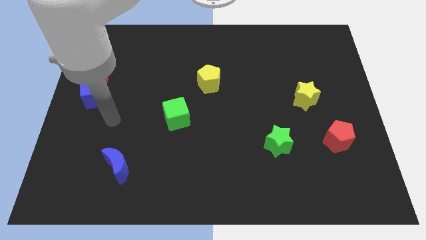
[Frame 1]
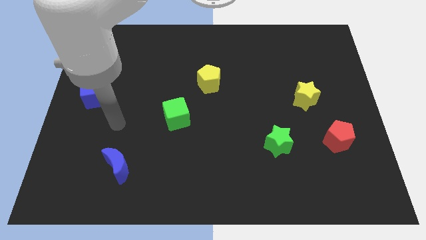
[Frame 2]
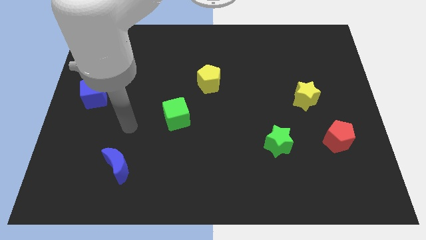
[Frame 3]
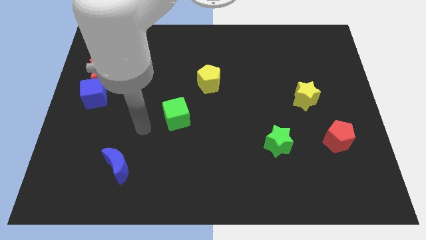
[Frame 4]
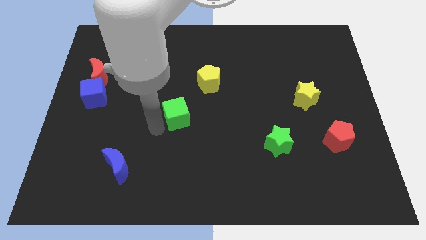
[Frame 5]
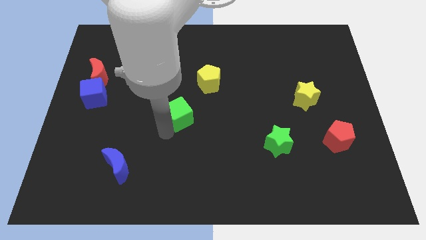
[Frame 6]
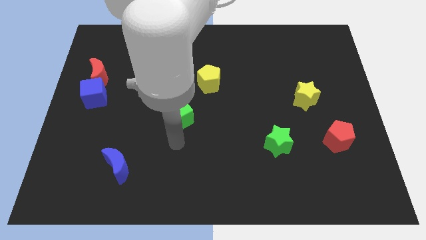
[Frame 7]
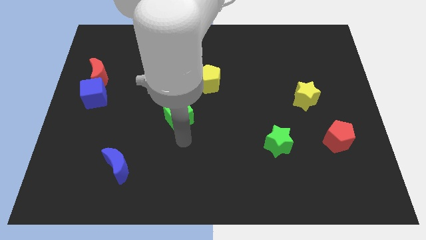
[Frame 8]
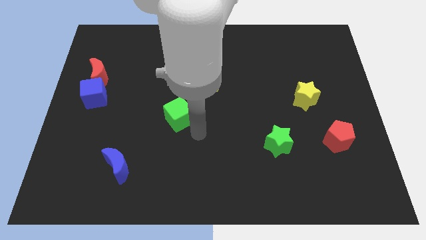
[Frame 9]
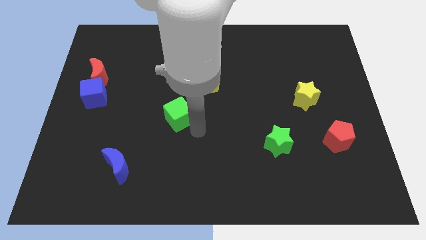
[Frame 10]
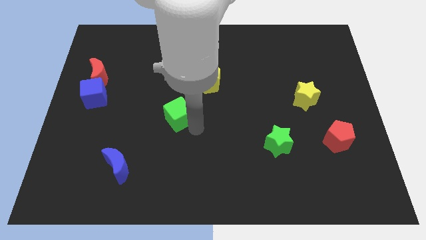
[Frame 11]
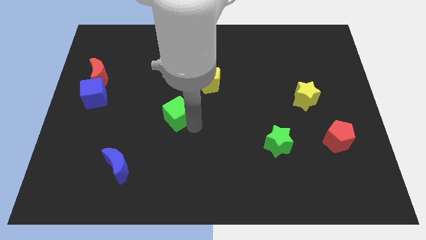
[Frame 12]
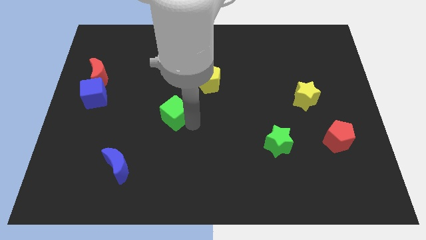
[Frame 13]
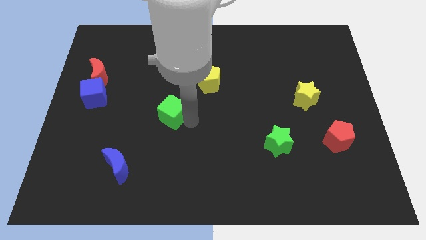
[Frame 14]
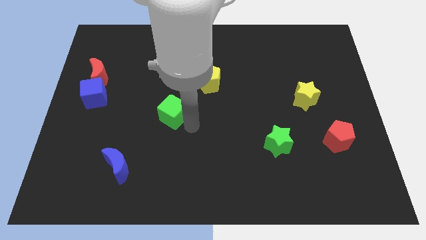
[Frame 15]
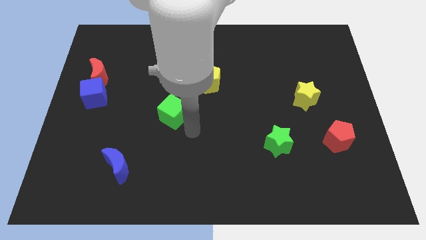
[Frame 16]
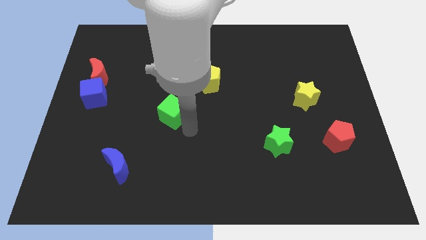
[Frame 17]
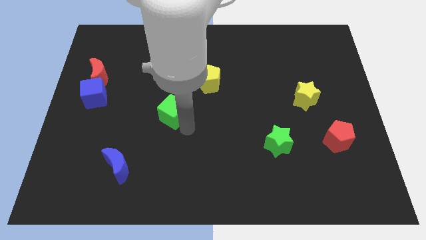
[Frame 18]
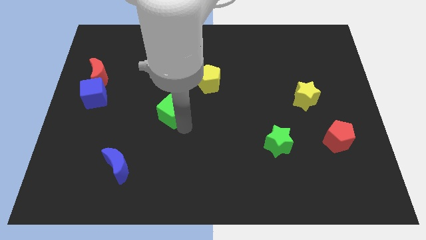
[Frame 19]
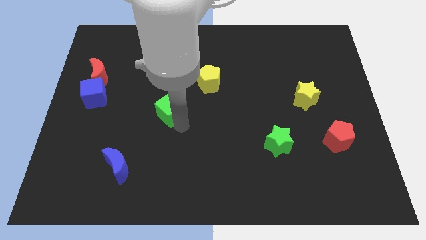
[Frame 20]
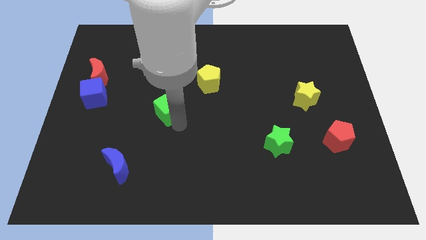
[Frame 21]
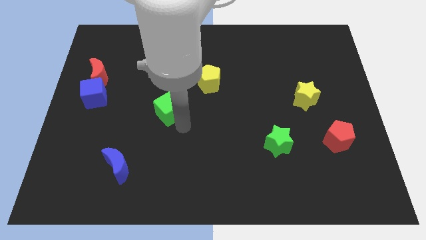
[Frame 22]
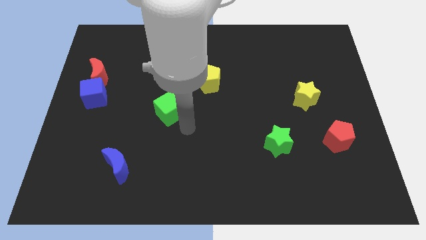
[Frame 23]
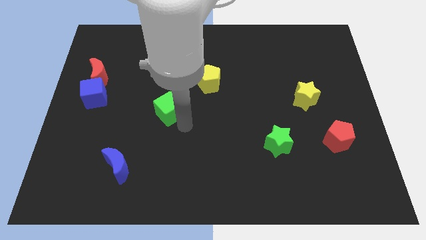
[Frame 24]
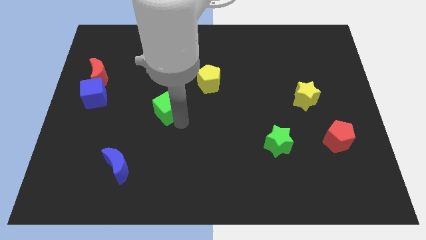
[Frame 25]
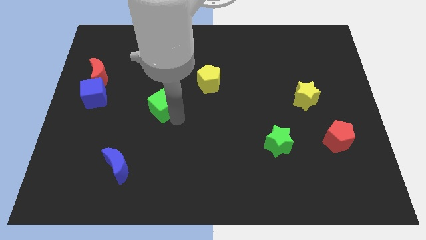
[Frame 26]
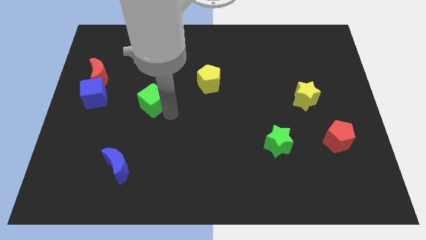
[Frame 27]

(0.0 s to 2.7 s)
slightly move the green cube up and to the left

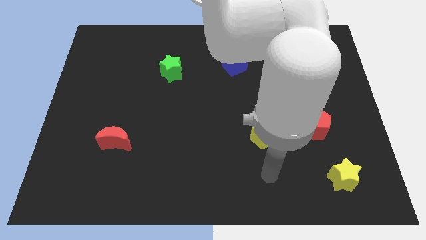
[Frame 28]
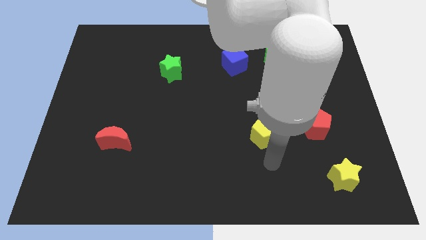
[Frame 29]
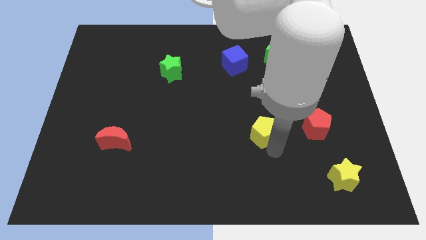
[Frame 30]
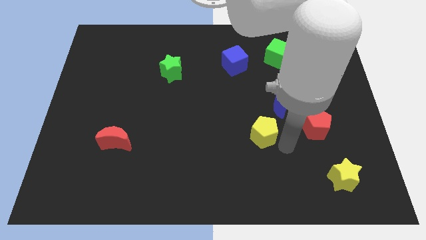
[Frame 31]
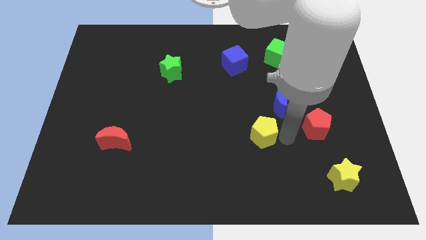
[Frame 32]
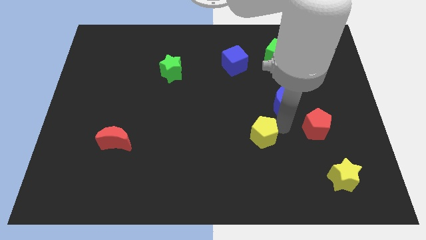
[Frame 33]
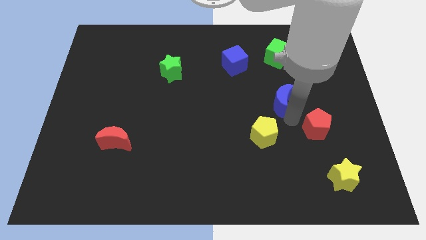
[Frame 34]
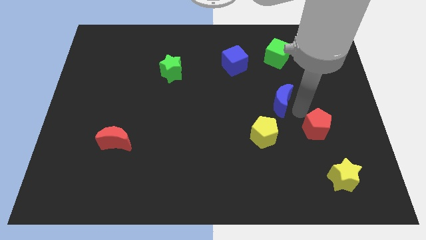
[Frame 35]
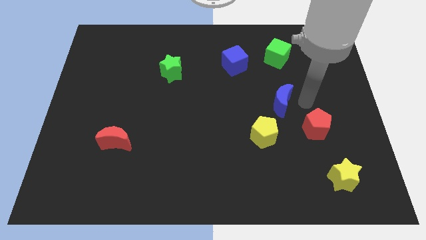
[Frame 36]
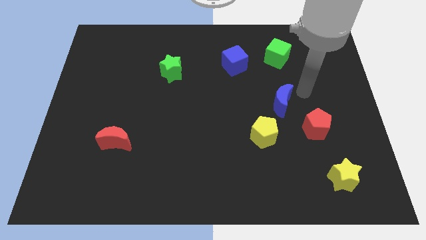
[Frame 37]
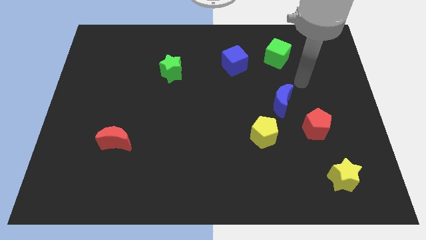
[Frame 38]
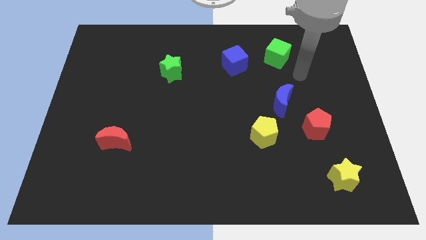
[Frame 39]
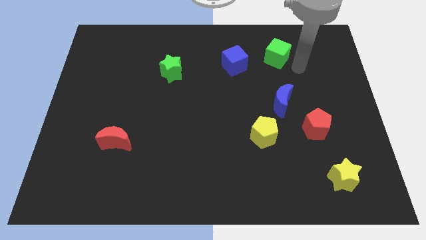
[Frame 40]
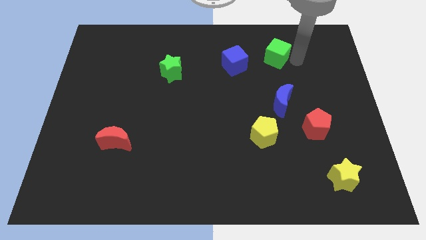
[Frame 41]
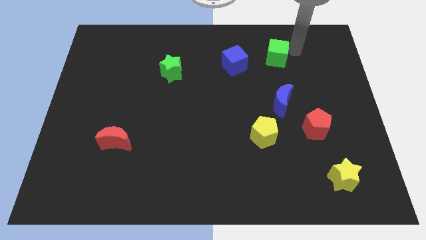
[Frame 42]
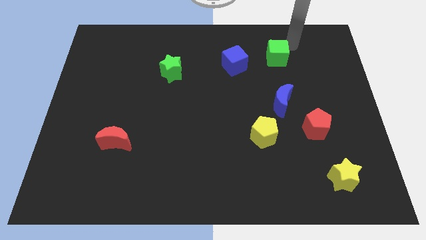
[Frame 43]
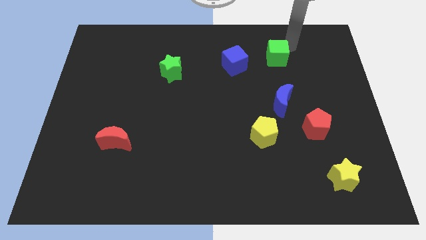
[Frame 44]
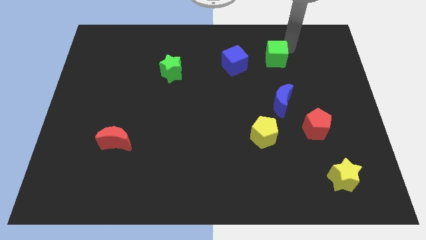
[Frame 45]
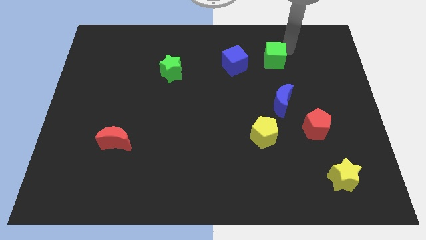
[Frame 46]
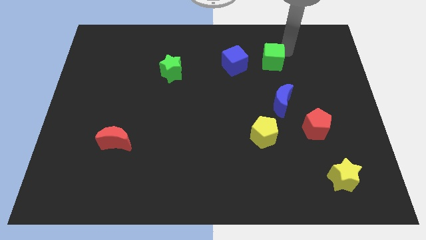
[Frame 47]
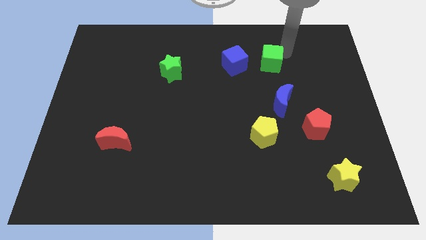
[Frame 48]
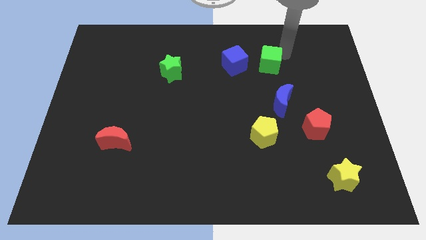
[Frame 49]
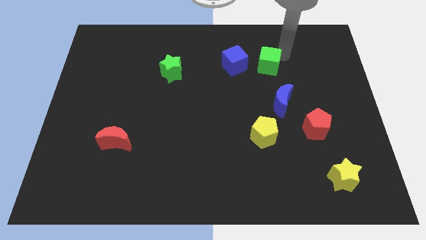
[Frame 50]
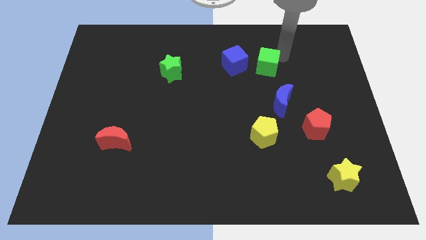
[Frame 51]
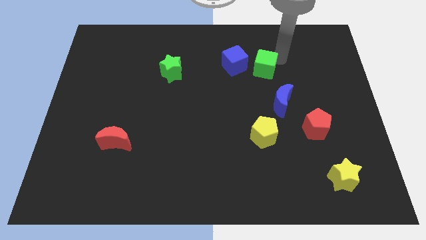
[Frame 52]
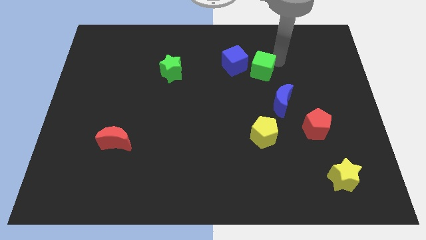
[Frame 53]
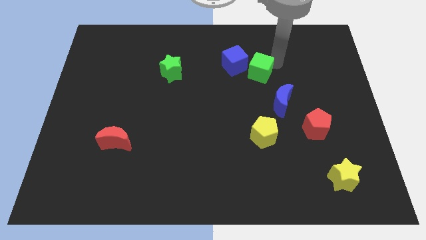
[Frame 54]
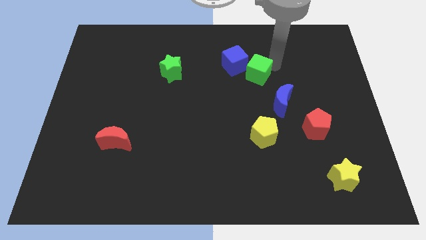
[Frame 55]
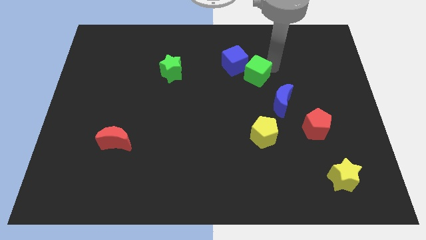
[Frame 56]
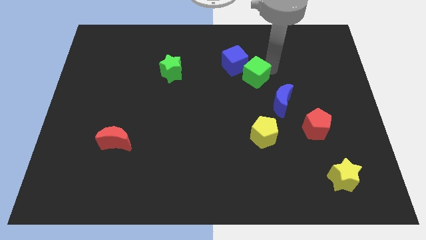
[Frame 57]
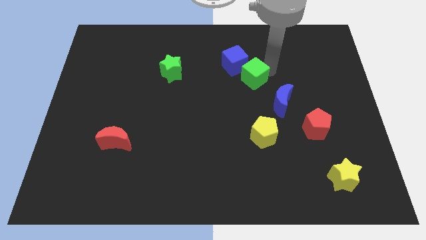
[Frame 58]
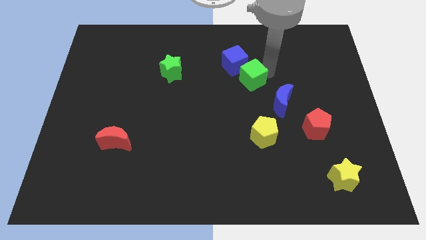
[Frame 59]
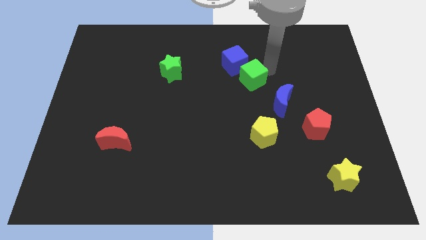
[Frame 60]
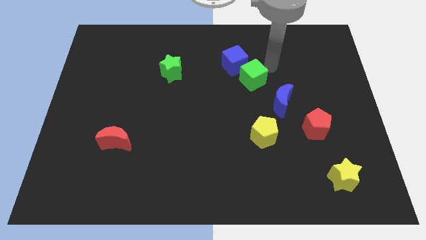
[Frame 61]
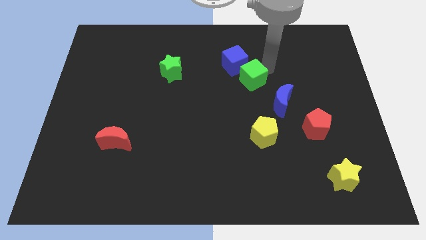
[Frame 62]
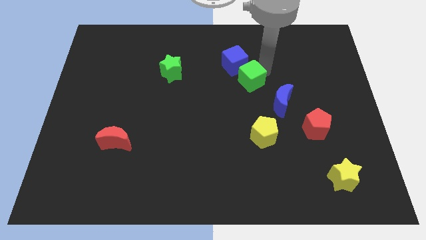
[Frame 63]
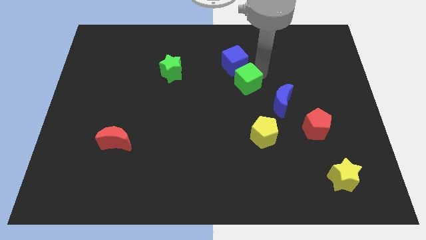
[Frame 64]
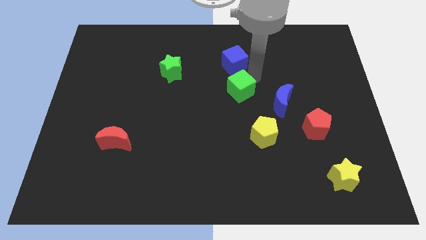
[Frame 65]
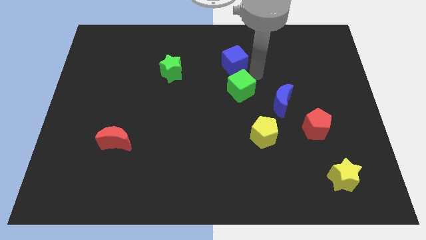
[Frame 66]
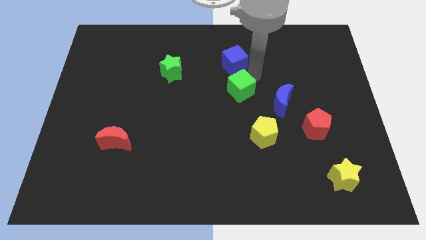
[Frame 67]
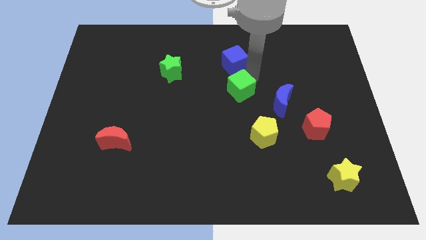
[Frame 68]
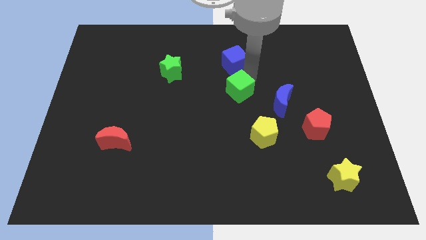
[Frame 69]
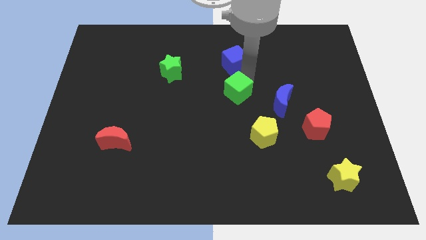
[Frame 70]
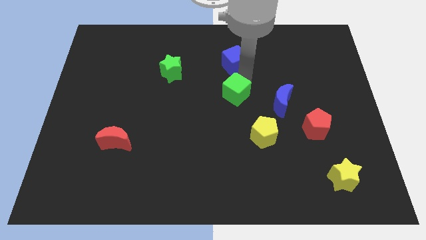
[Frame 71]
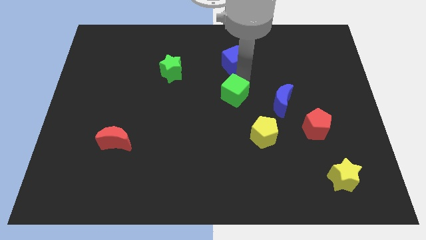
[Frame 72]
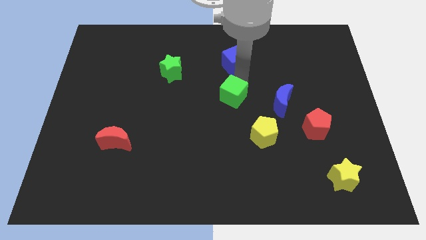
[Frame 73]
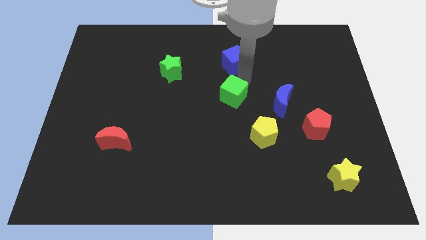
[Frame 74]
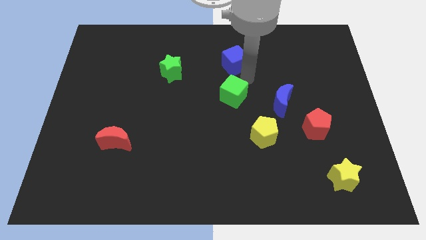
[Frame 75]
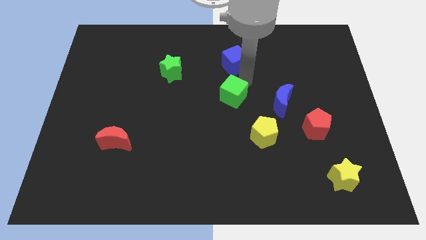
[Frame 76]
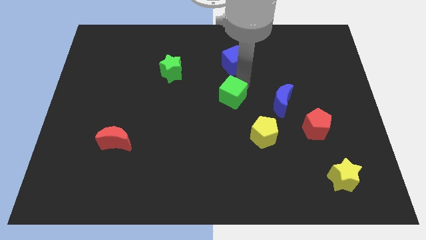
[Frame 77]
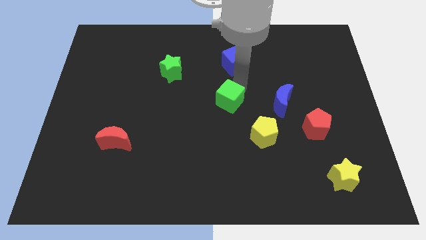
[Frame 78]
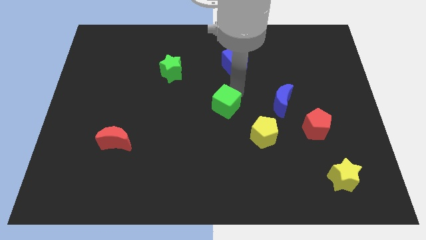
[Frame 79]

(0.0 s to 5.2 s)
move the green cube down and left diagonally
